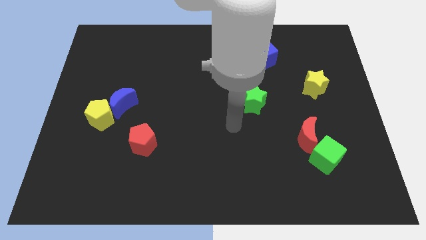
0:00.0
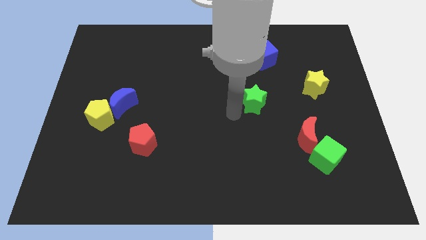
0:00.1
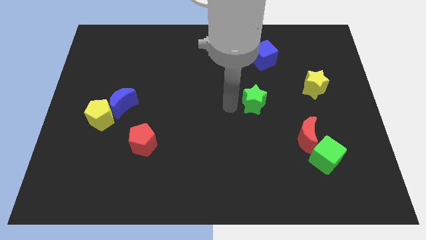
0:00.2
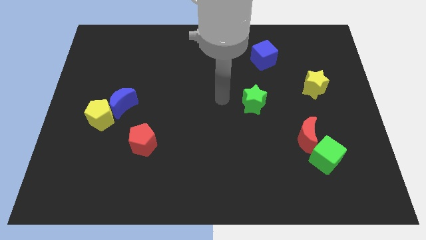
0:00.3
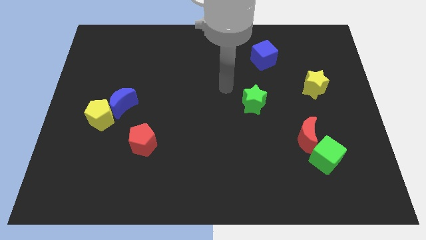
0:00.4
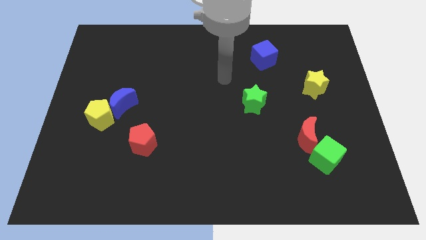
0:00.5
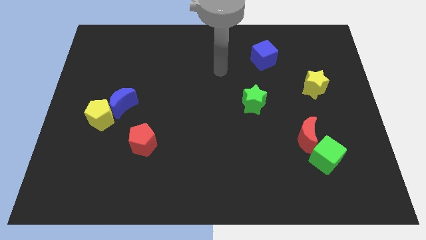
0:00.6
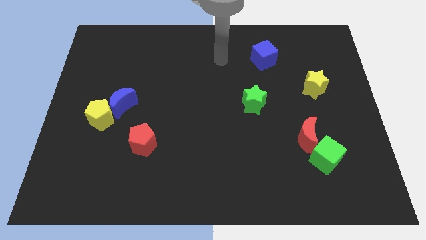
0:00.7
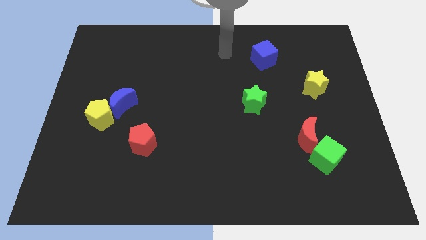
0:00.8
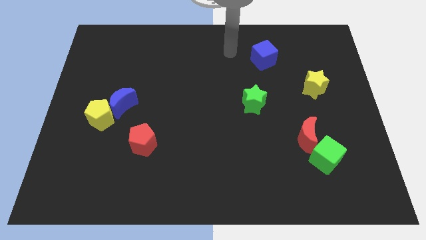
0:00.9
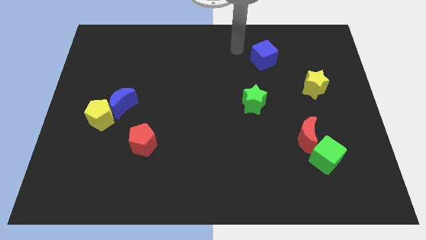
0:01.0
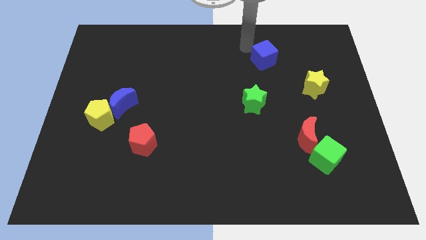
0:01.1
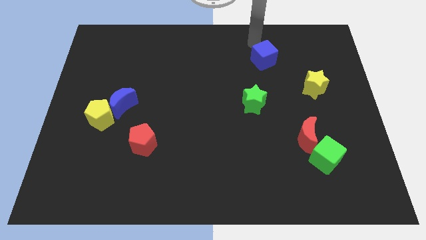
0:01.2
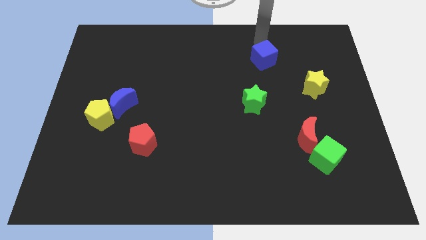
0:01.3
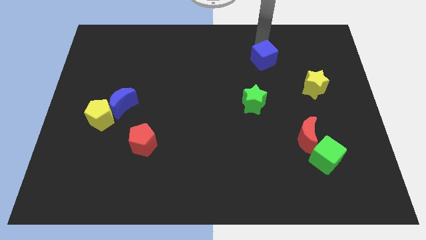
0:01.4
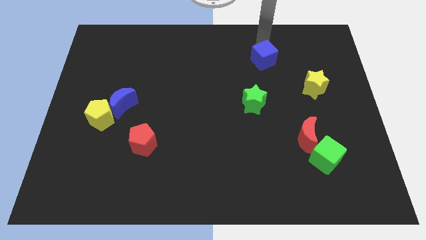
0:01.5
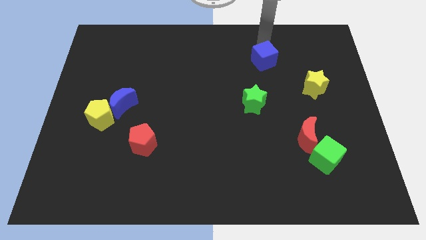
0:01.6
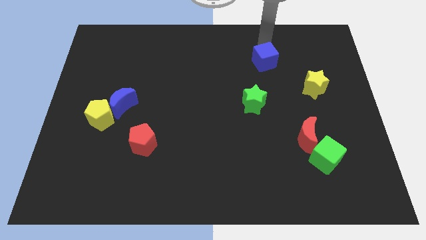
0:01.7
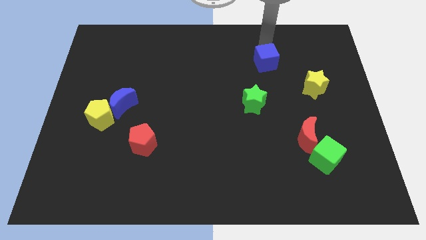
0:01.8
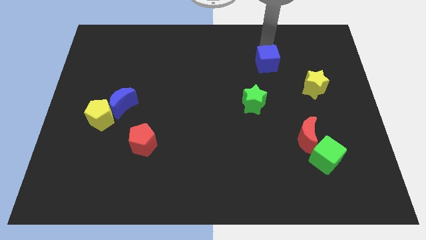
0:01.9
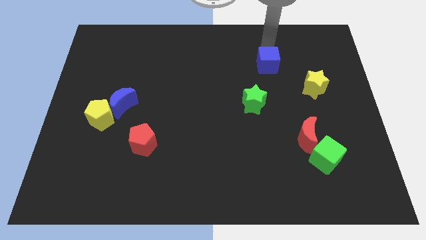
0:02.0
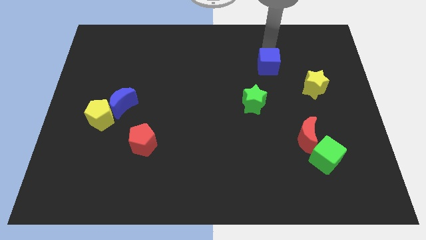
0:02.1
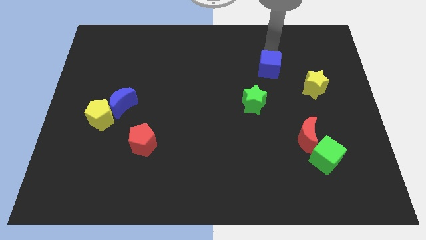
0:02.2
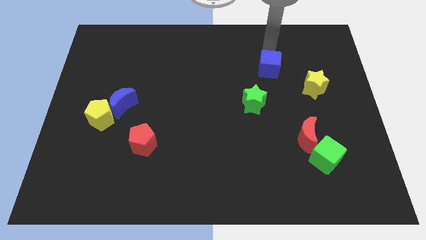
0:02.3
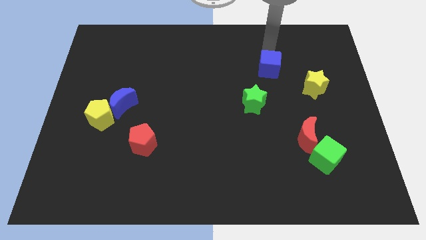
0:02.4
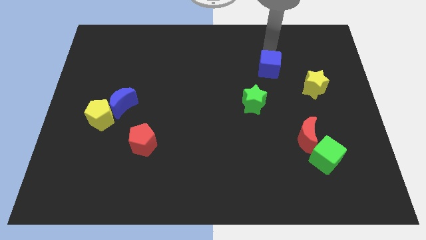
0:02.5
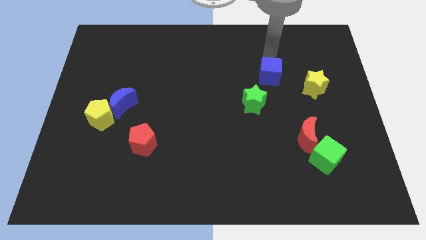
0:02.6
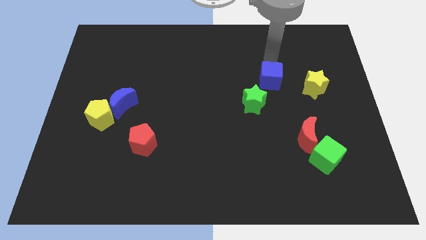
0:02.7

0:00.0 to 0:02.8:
push the blue cube down somewhat

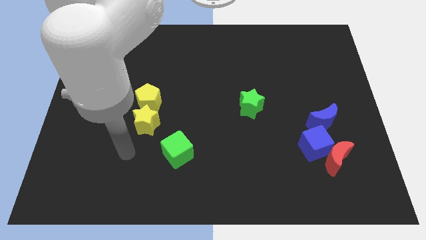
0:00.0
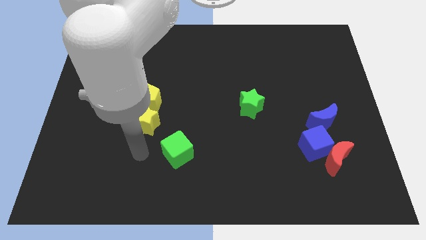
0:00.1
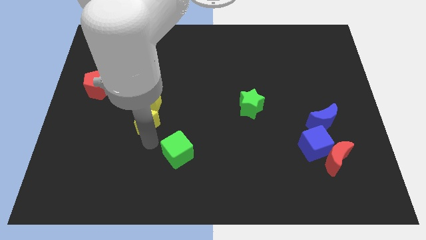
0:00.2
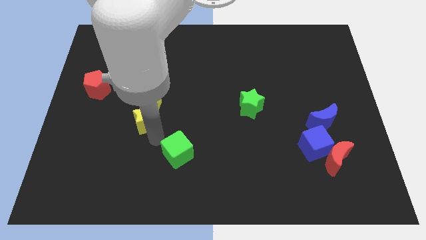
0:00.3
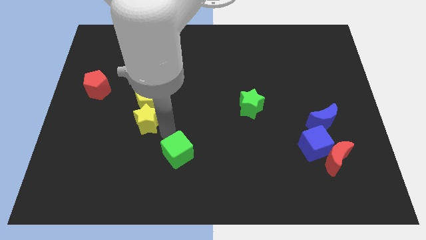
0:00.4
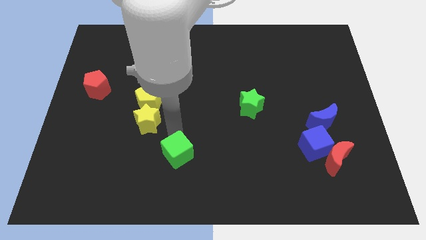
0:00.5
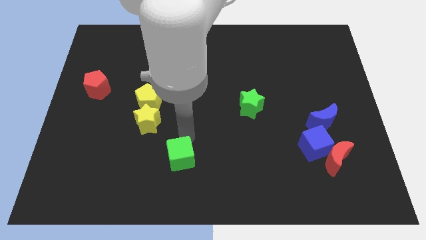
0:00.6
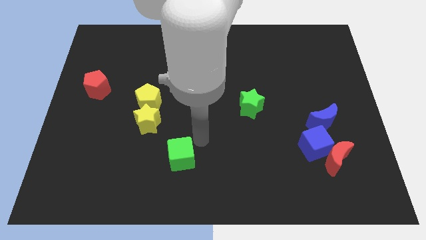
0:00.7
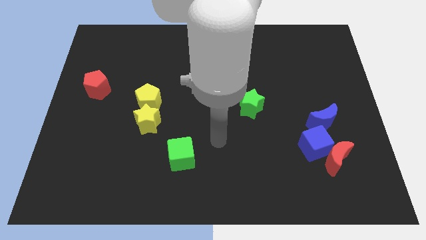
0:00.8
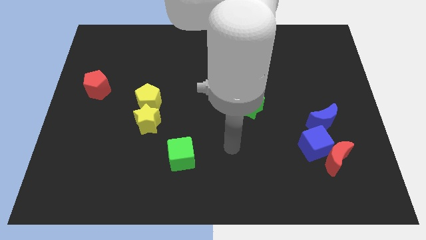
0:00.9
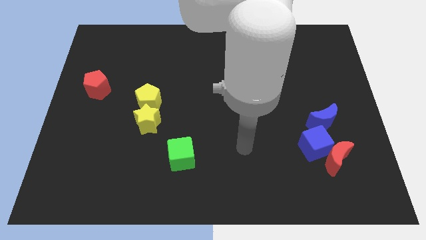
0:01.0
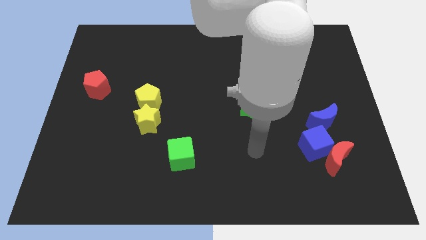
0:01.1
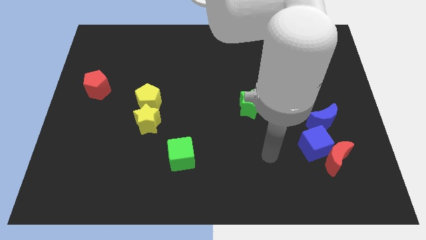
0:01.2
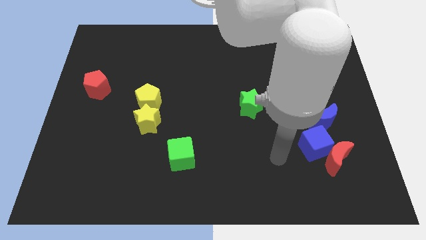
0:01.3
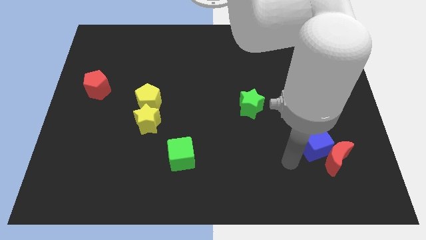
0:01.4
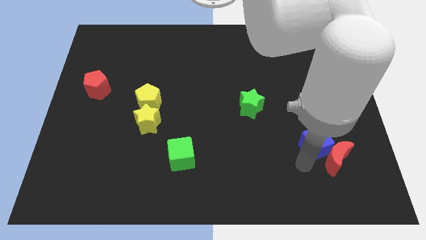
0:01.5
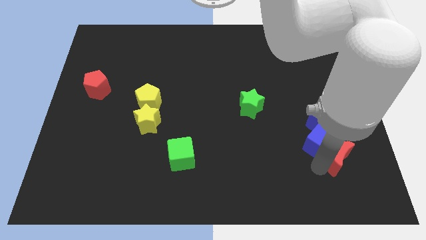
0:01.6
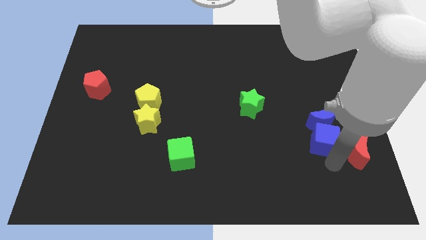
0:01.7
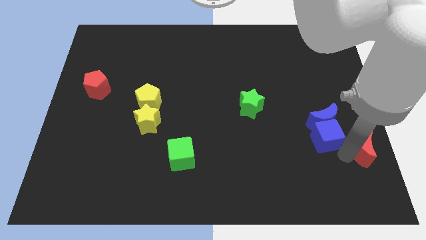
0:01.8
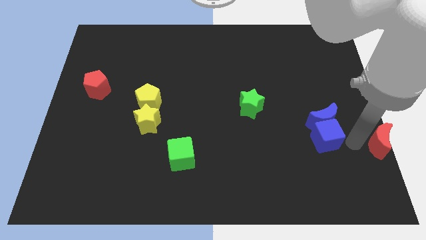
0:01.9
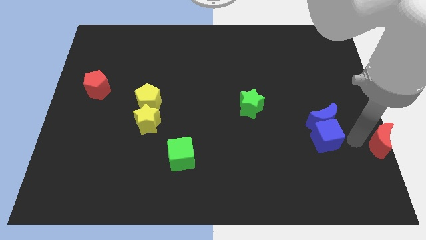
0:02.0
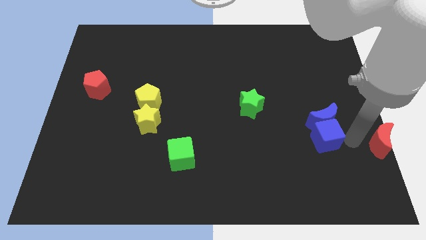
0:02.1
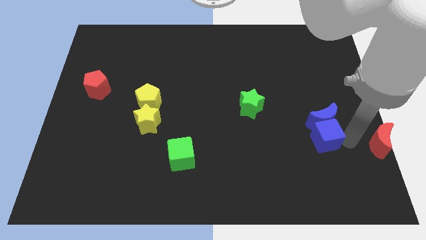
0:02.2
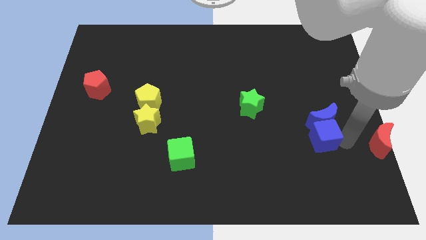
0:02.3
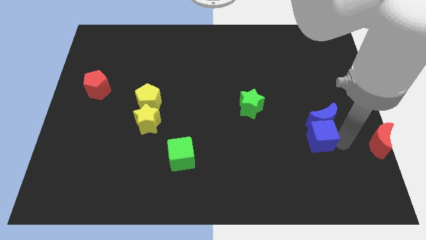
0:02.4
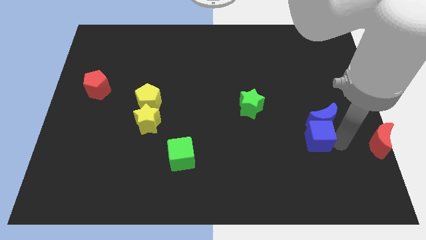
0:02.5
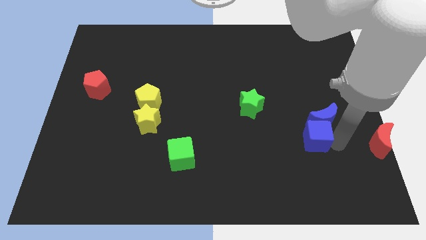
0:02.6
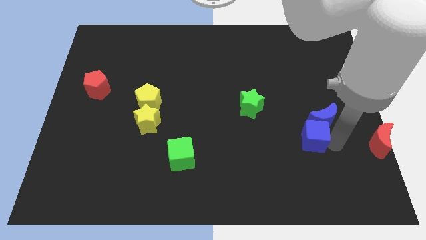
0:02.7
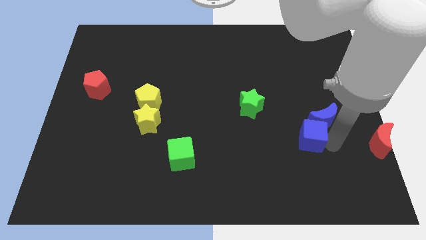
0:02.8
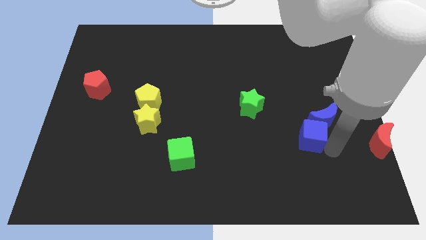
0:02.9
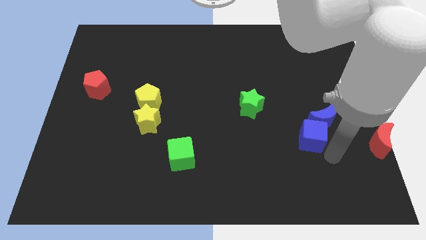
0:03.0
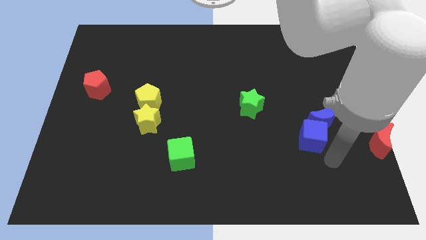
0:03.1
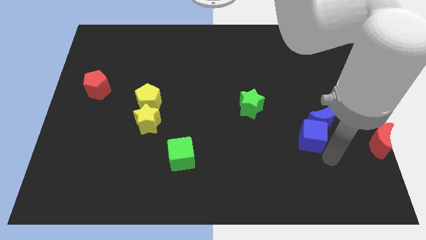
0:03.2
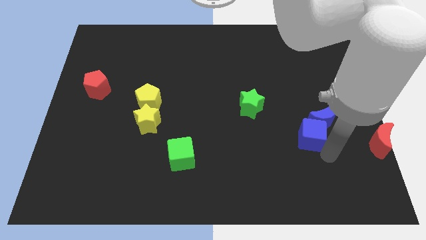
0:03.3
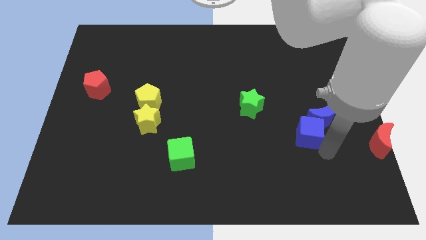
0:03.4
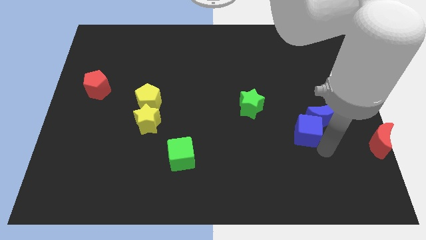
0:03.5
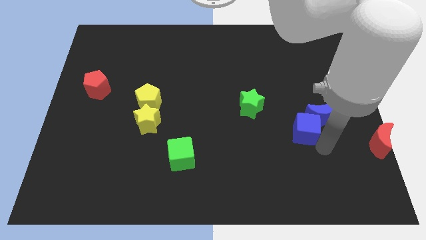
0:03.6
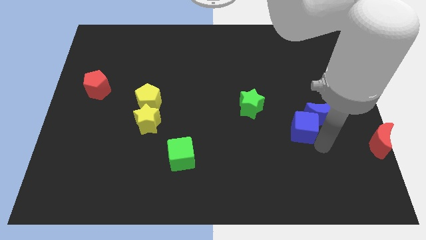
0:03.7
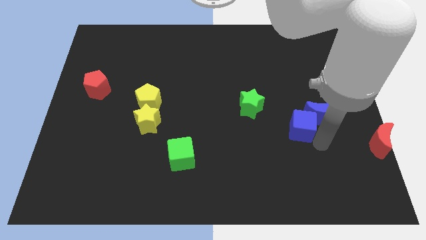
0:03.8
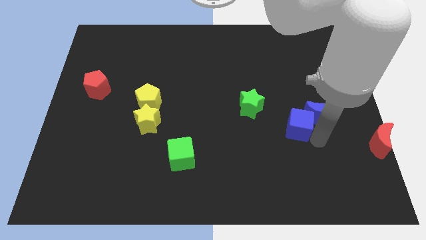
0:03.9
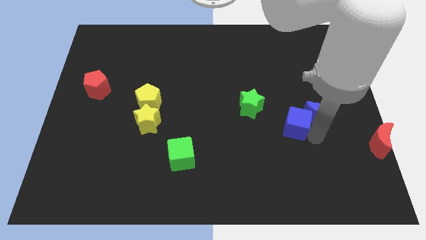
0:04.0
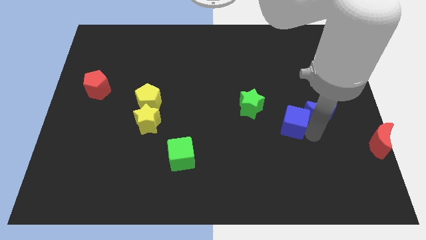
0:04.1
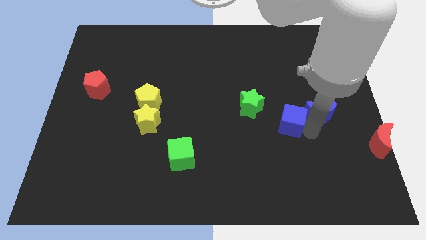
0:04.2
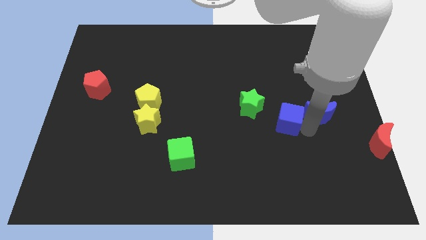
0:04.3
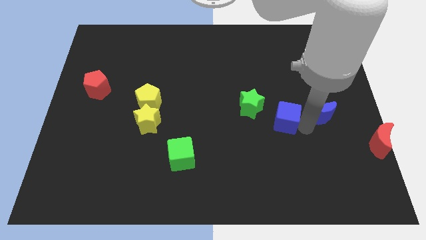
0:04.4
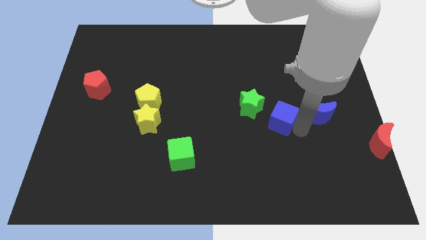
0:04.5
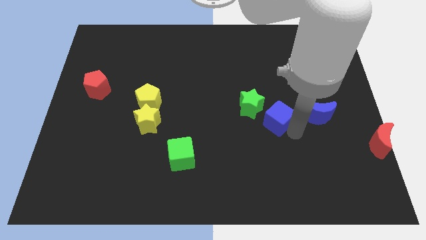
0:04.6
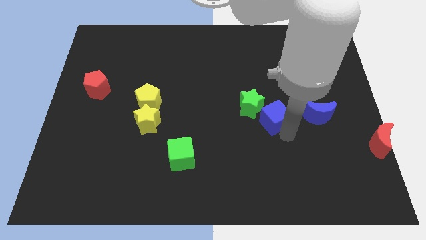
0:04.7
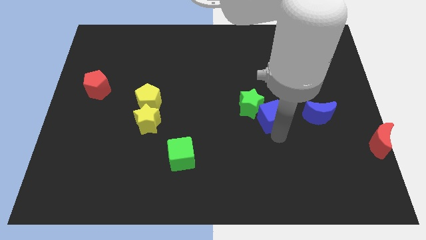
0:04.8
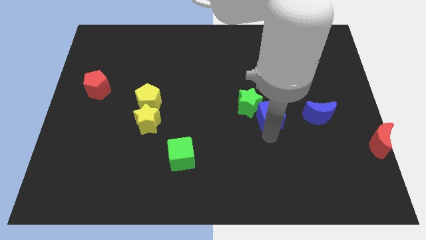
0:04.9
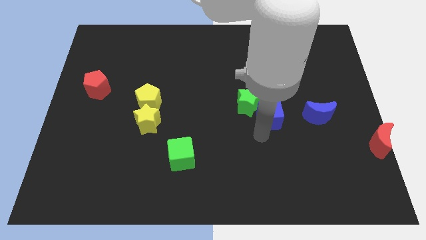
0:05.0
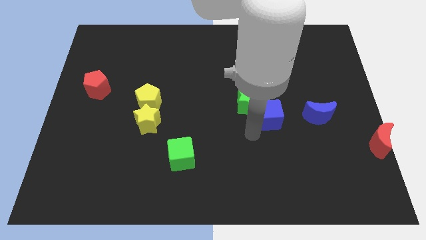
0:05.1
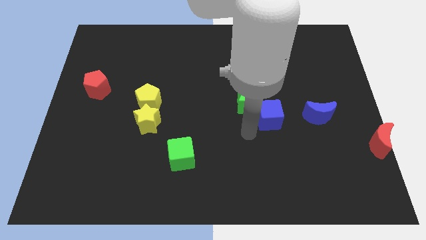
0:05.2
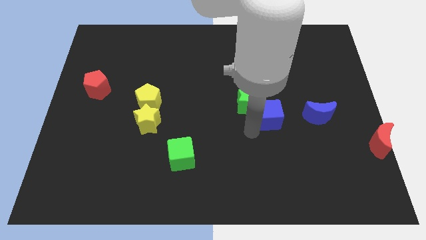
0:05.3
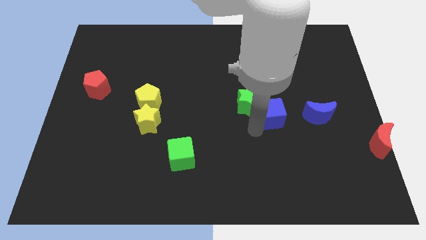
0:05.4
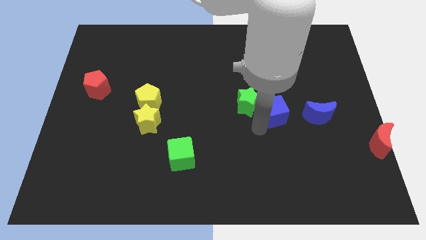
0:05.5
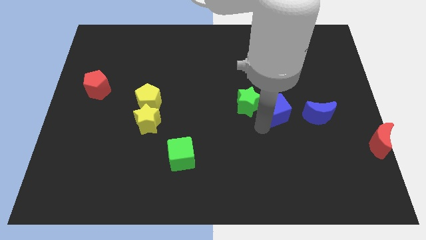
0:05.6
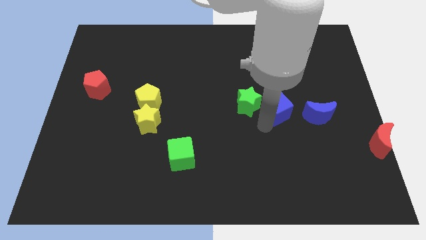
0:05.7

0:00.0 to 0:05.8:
slide the blue cube up slightly
